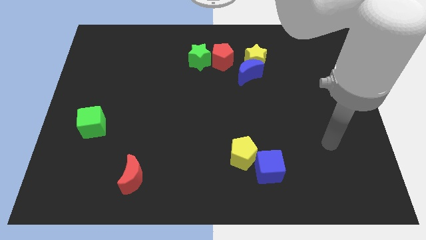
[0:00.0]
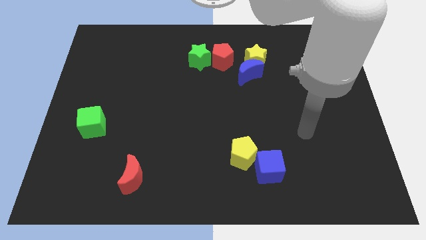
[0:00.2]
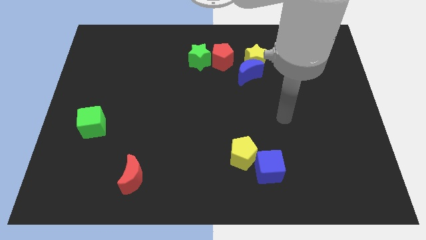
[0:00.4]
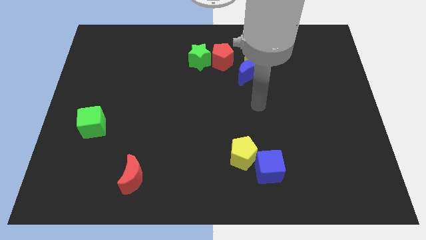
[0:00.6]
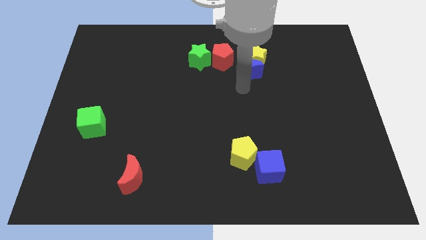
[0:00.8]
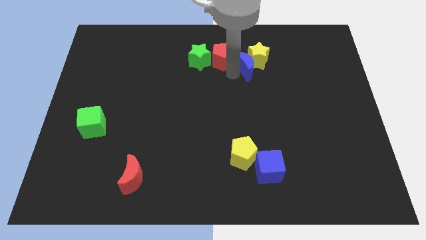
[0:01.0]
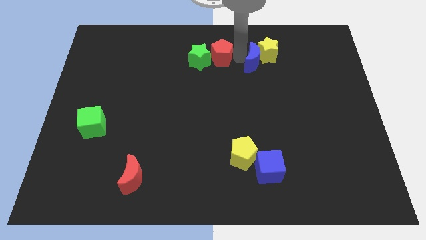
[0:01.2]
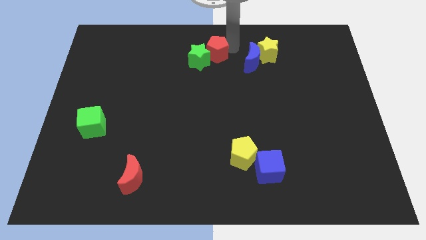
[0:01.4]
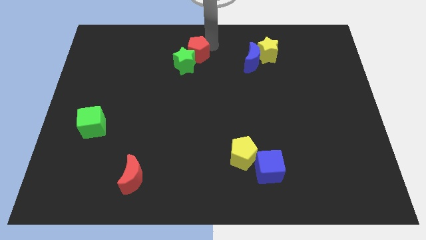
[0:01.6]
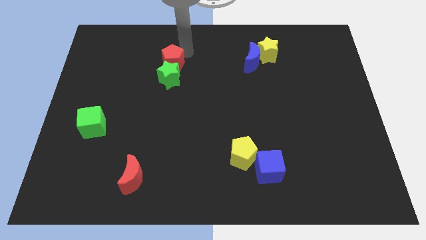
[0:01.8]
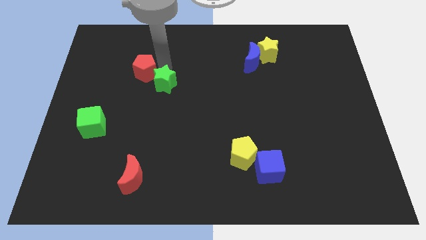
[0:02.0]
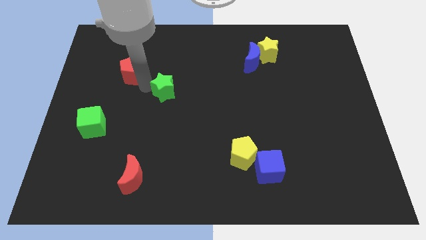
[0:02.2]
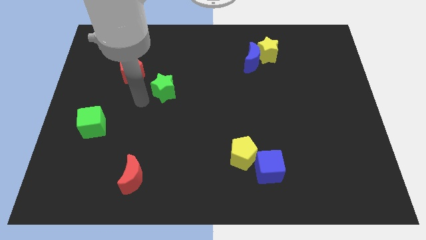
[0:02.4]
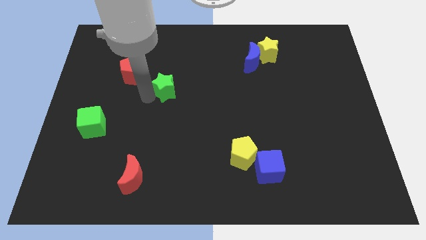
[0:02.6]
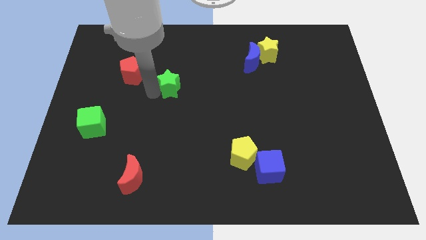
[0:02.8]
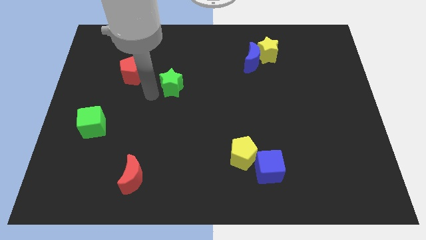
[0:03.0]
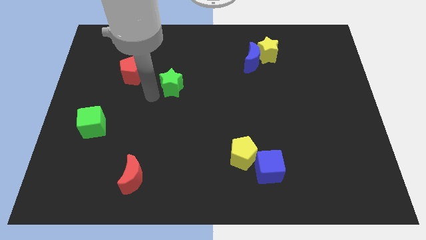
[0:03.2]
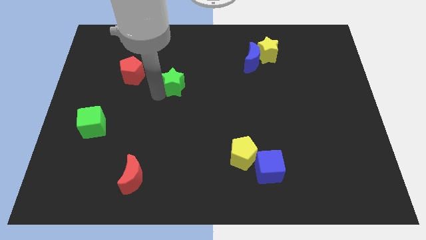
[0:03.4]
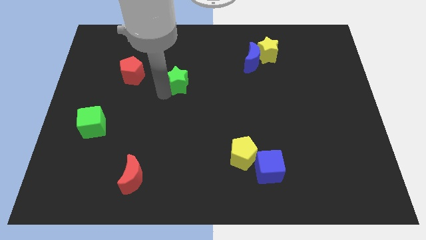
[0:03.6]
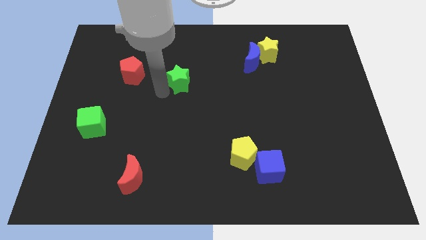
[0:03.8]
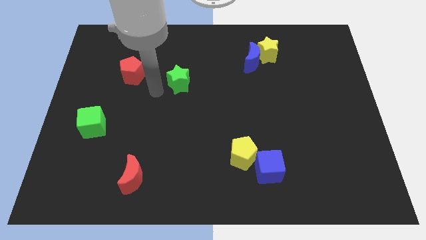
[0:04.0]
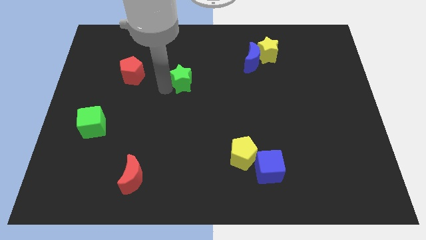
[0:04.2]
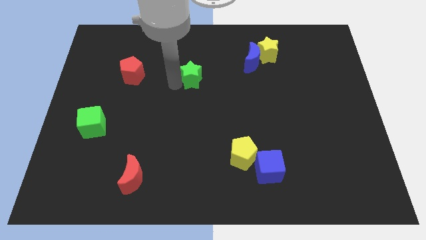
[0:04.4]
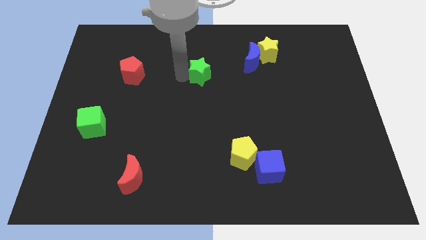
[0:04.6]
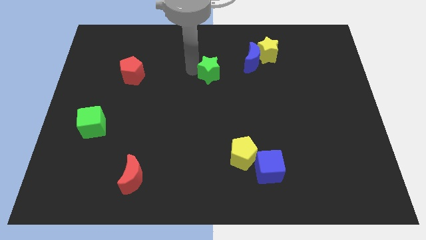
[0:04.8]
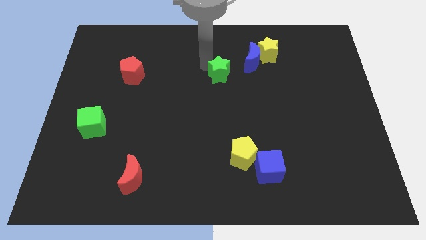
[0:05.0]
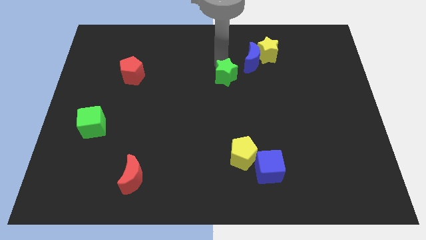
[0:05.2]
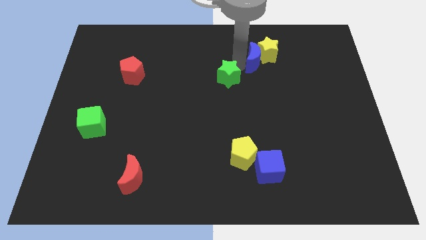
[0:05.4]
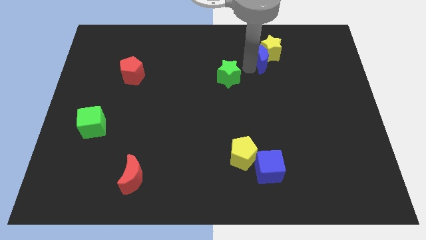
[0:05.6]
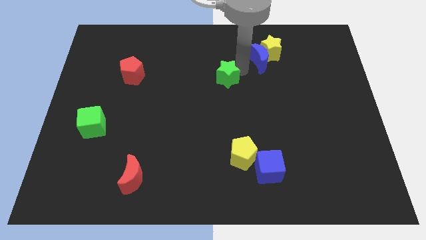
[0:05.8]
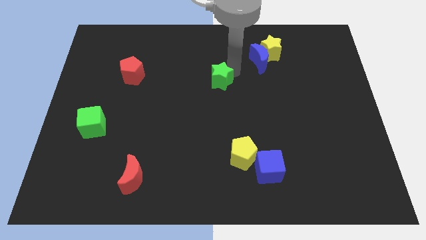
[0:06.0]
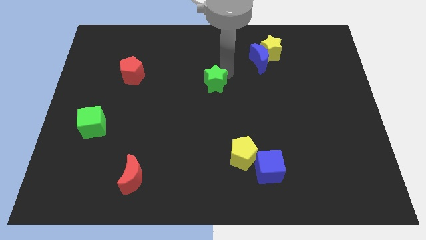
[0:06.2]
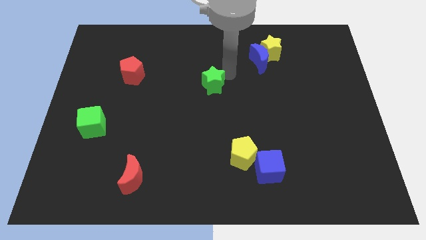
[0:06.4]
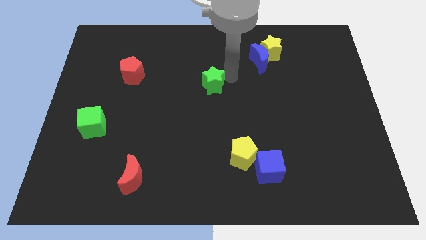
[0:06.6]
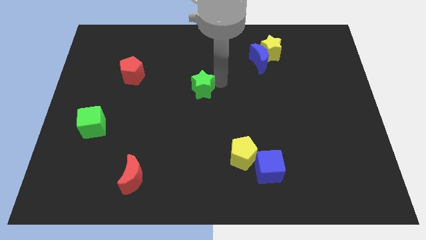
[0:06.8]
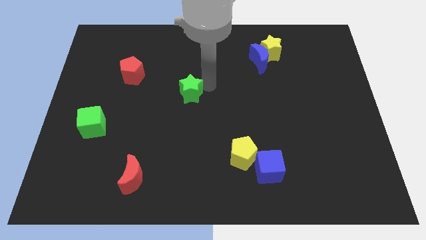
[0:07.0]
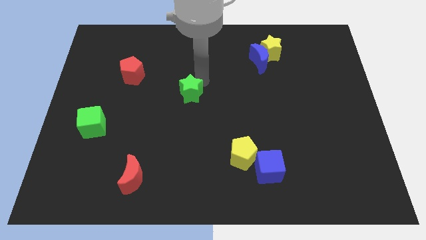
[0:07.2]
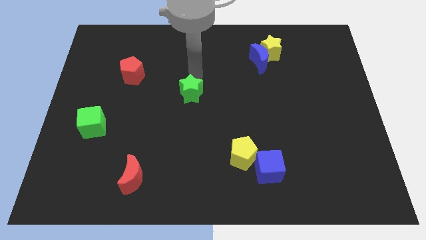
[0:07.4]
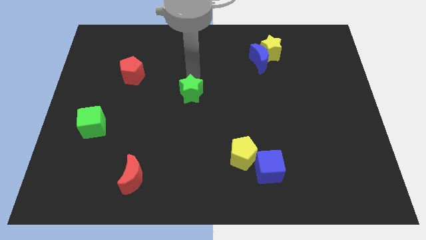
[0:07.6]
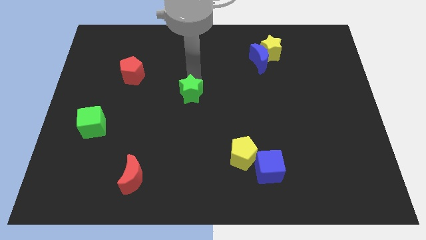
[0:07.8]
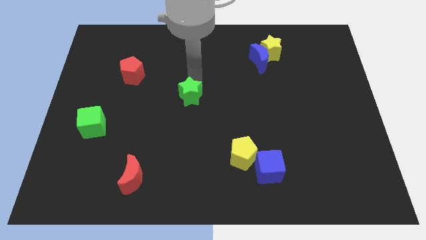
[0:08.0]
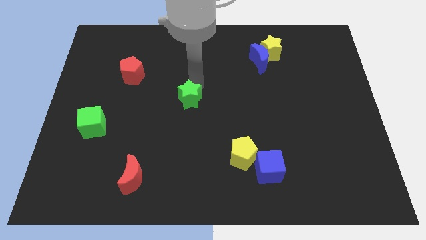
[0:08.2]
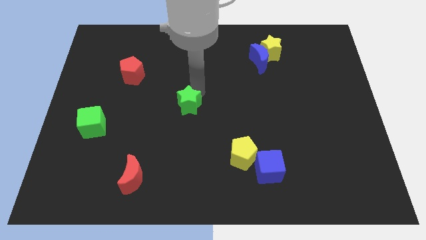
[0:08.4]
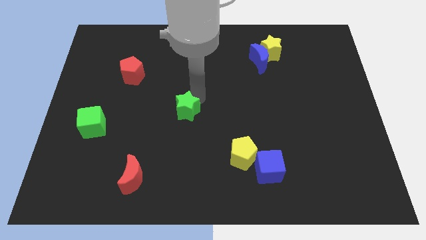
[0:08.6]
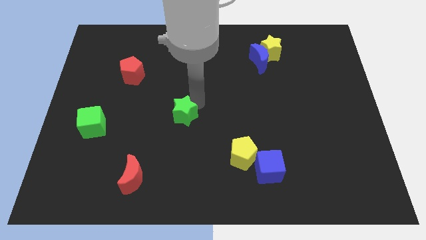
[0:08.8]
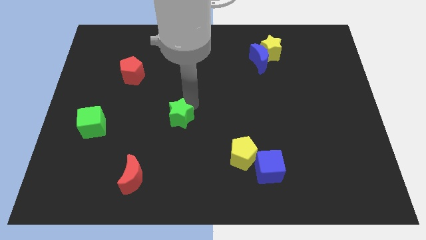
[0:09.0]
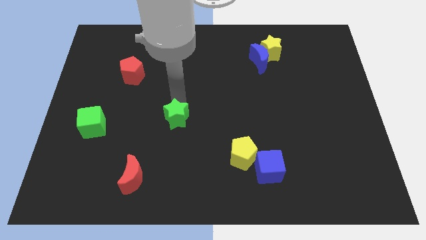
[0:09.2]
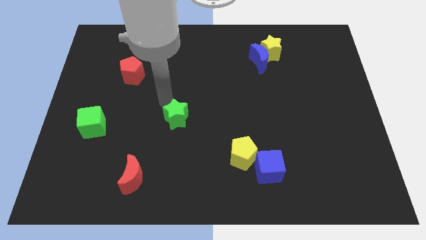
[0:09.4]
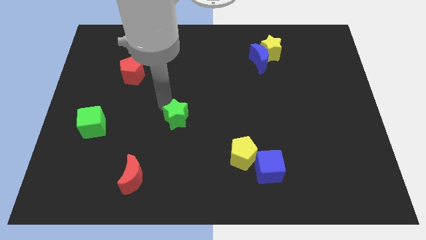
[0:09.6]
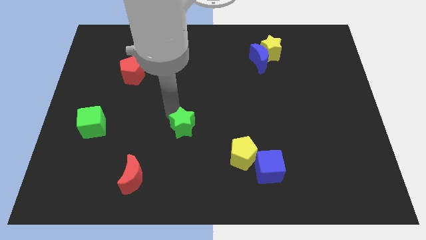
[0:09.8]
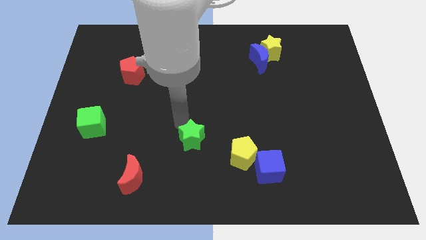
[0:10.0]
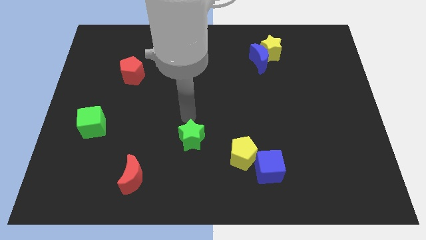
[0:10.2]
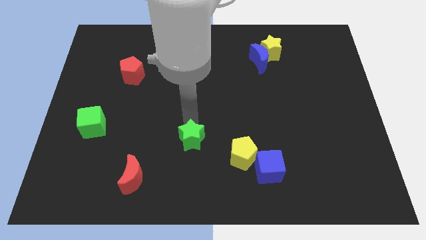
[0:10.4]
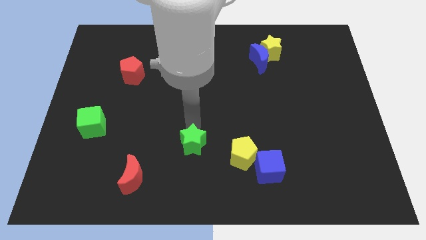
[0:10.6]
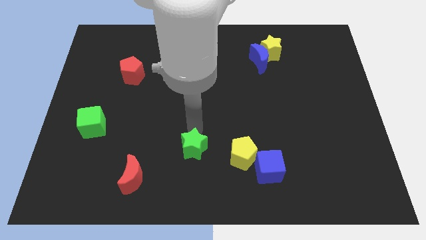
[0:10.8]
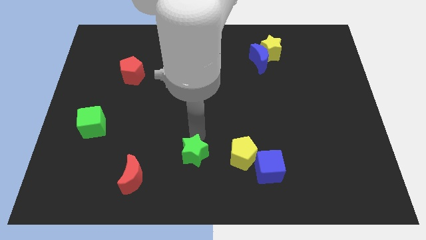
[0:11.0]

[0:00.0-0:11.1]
slide the green star to the bottom

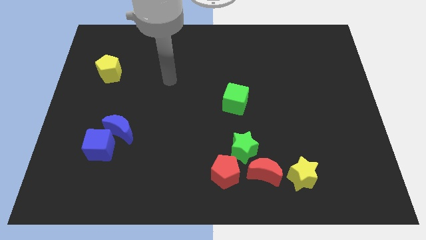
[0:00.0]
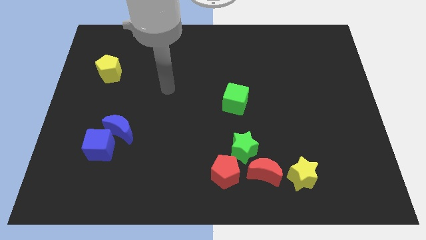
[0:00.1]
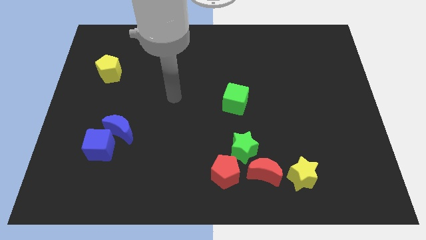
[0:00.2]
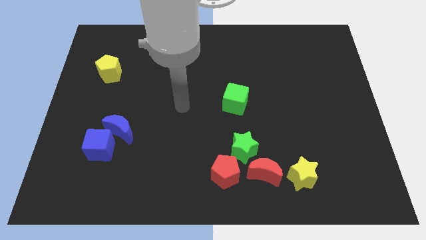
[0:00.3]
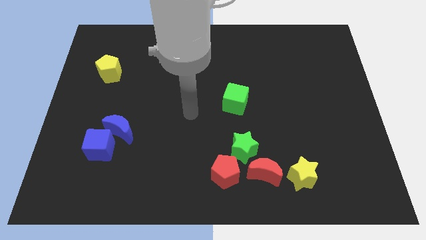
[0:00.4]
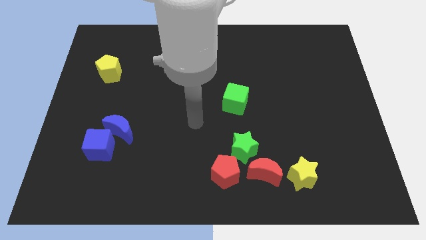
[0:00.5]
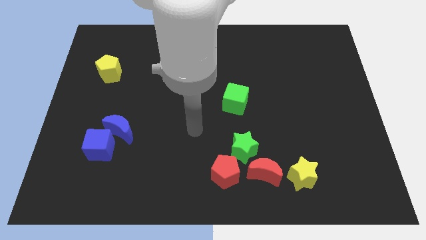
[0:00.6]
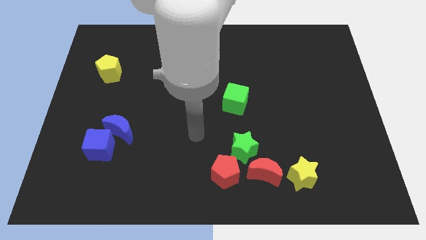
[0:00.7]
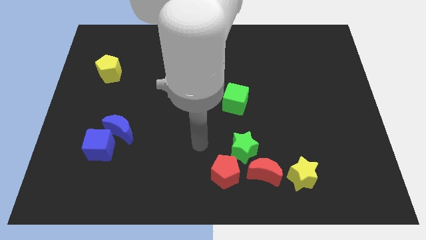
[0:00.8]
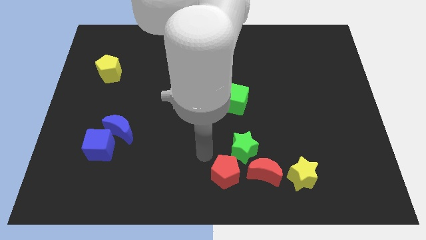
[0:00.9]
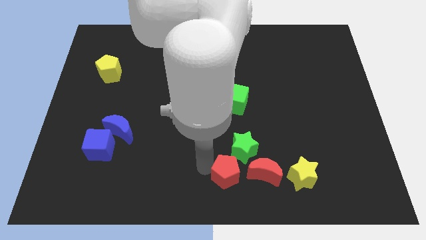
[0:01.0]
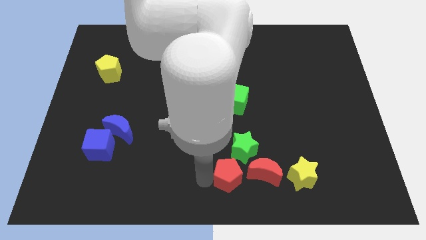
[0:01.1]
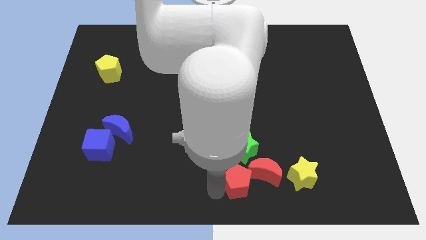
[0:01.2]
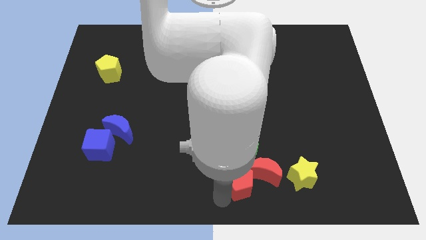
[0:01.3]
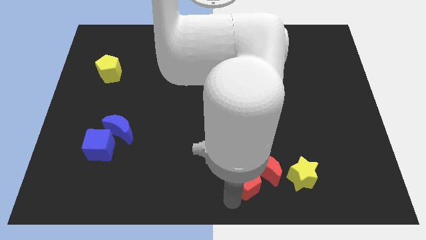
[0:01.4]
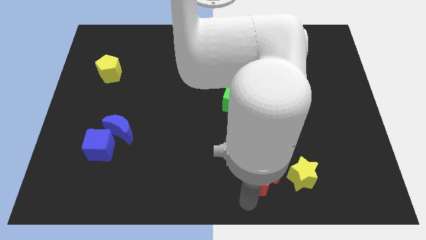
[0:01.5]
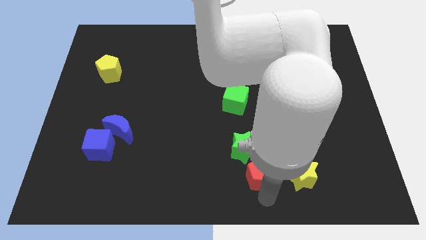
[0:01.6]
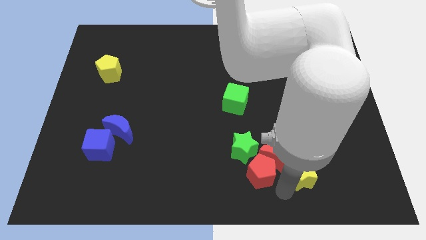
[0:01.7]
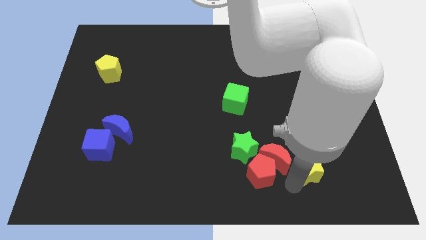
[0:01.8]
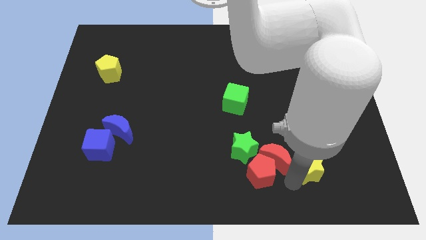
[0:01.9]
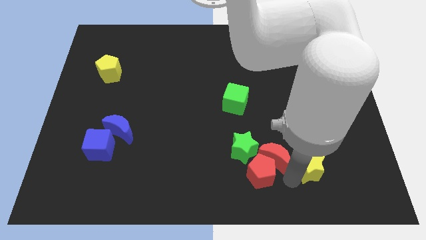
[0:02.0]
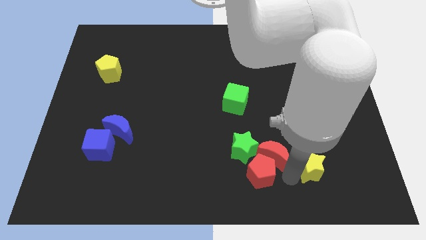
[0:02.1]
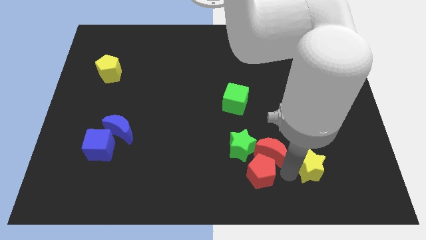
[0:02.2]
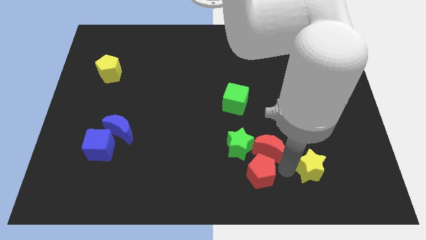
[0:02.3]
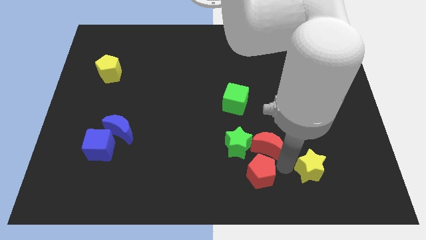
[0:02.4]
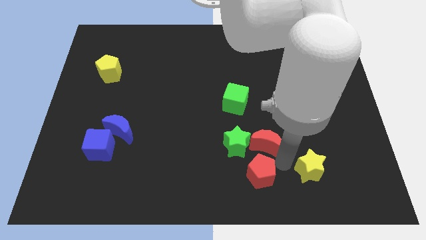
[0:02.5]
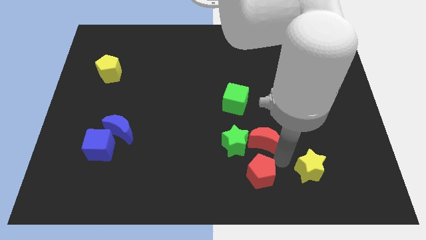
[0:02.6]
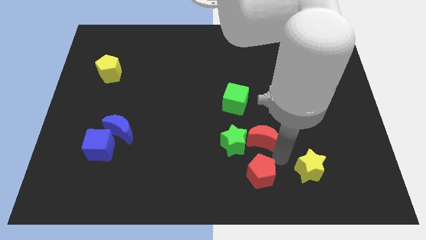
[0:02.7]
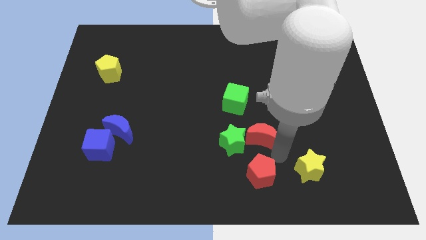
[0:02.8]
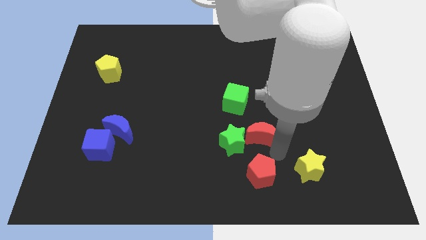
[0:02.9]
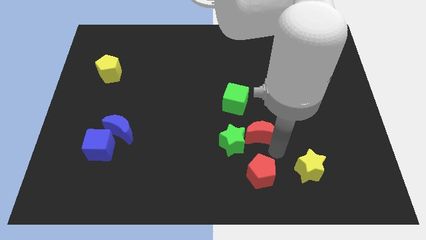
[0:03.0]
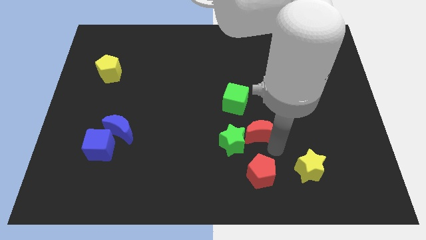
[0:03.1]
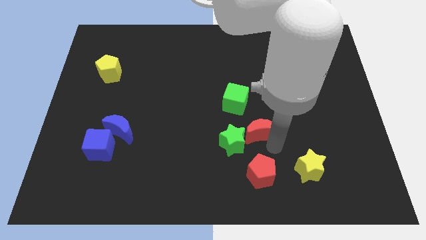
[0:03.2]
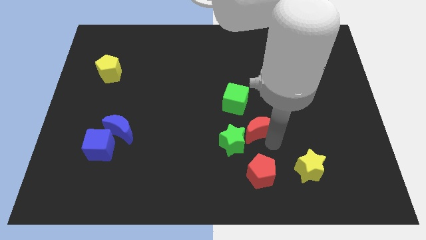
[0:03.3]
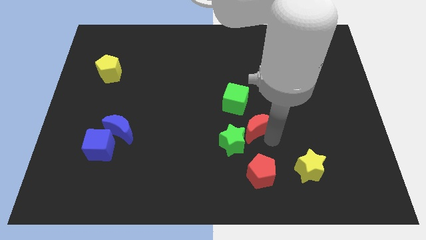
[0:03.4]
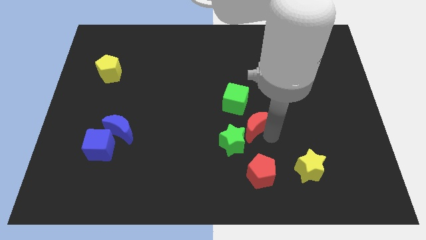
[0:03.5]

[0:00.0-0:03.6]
push the red moon to the middle of the board
